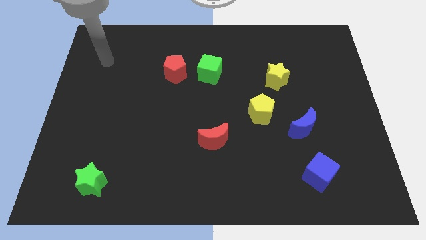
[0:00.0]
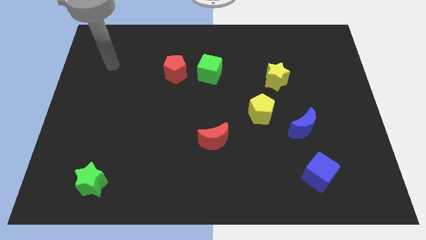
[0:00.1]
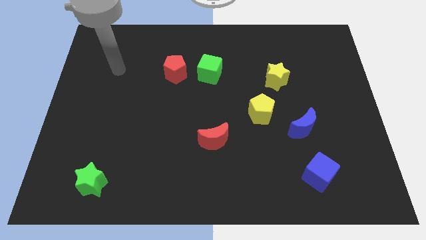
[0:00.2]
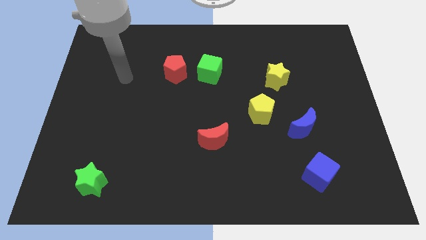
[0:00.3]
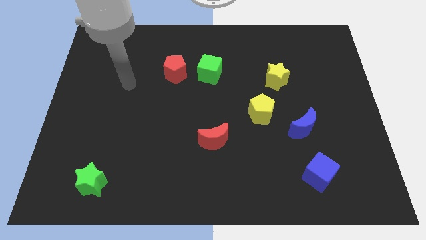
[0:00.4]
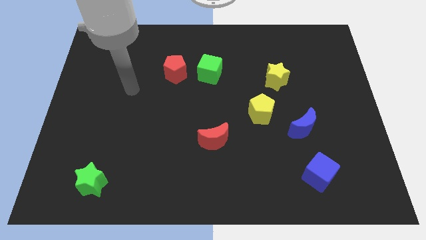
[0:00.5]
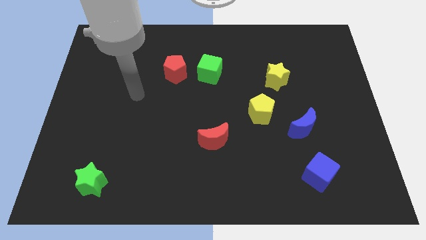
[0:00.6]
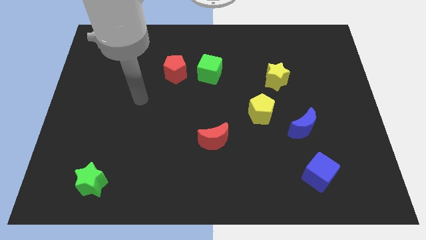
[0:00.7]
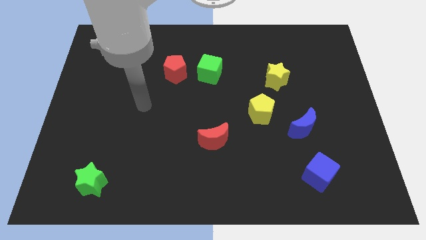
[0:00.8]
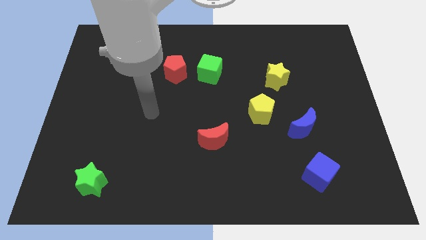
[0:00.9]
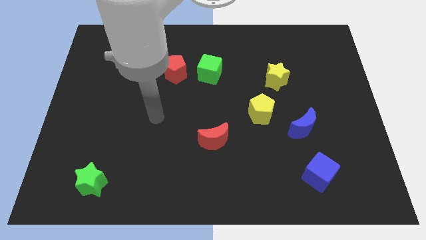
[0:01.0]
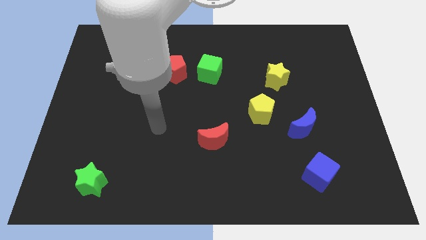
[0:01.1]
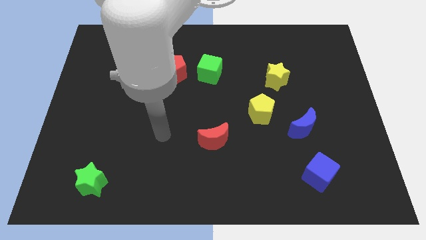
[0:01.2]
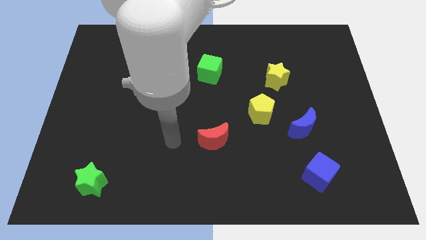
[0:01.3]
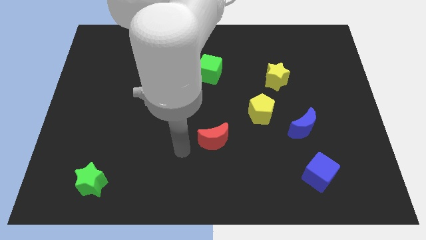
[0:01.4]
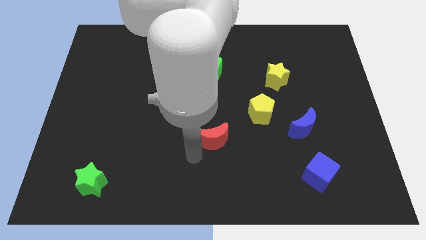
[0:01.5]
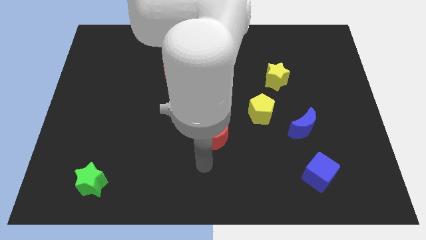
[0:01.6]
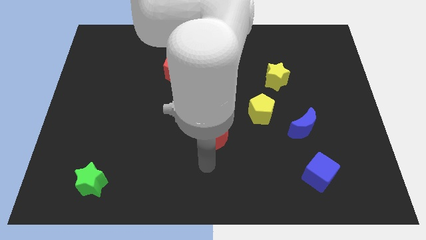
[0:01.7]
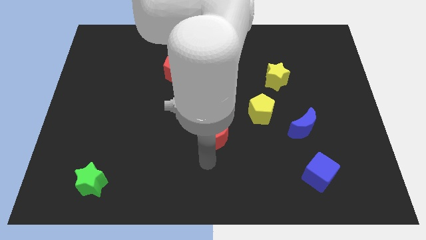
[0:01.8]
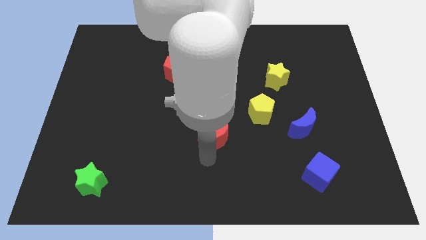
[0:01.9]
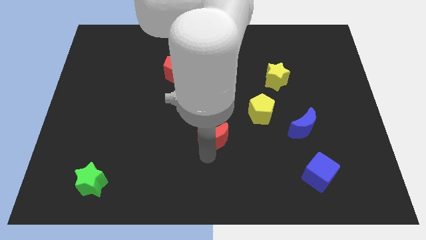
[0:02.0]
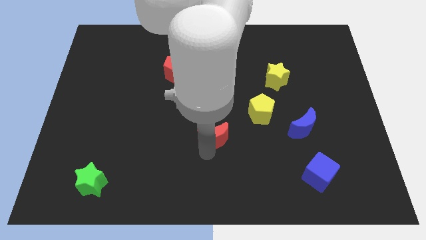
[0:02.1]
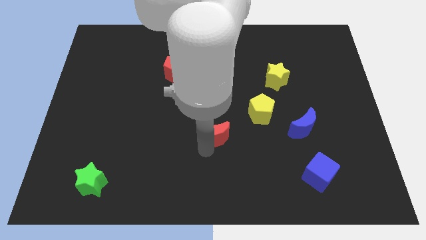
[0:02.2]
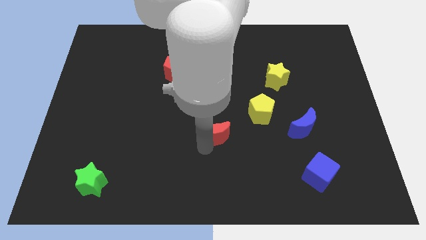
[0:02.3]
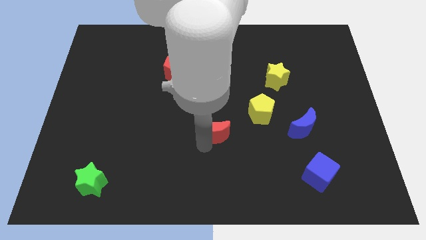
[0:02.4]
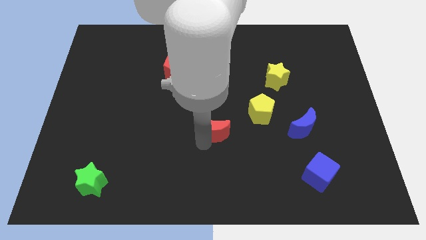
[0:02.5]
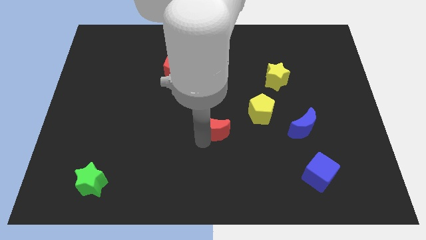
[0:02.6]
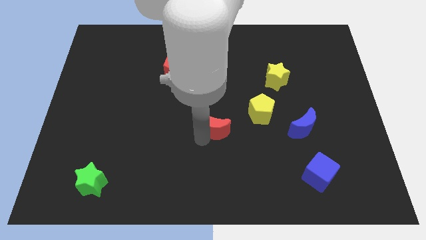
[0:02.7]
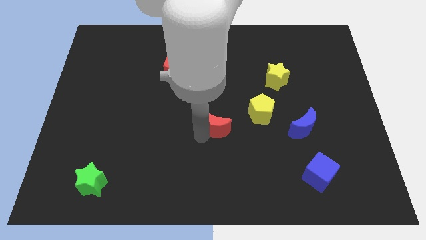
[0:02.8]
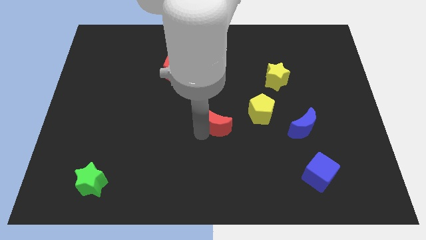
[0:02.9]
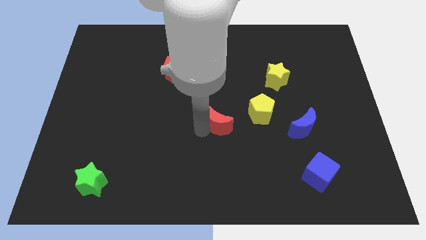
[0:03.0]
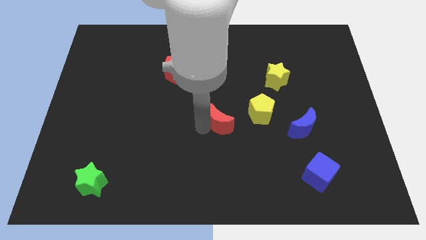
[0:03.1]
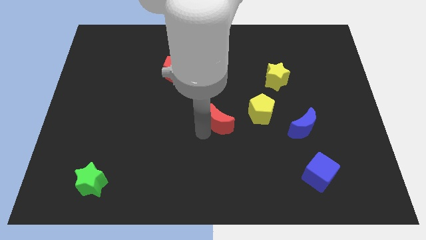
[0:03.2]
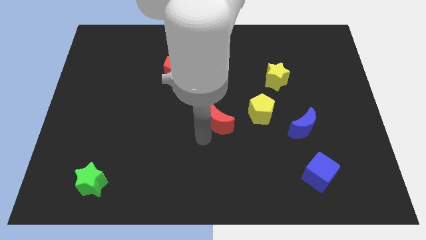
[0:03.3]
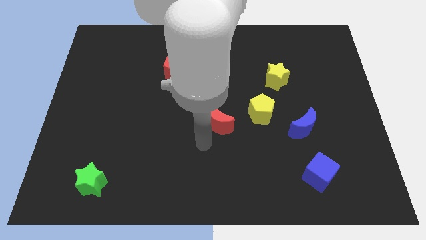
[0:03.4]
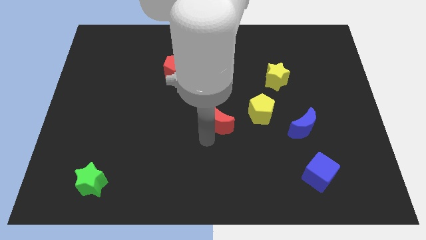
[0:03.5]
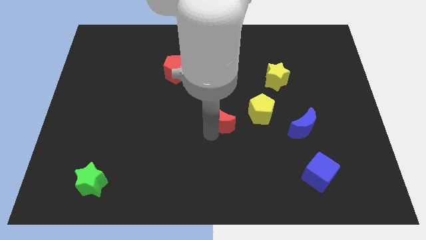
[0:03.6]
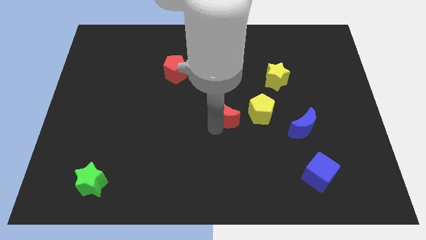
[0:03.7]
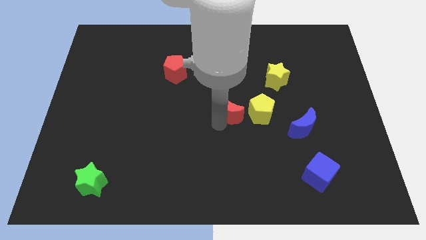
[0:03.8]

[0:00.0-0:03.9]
slide the red moon a bit upwards and to the right diagonally

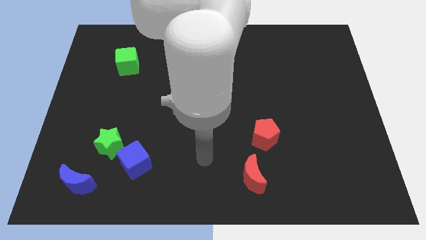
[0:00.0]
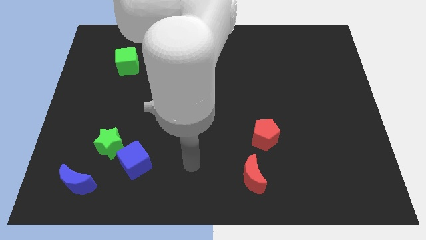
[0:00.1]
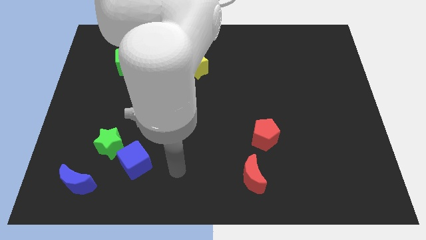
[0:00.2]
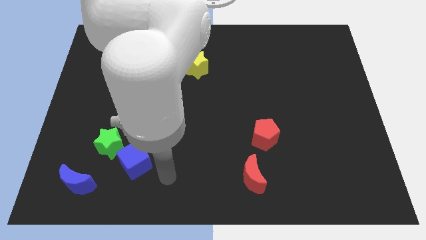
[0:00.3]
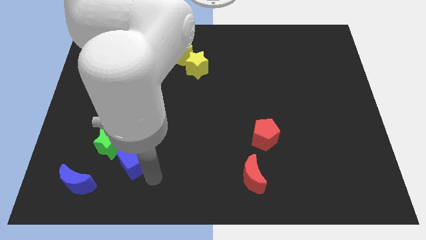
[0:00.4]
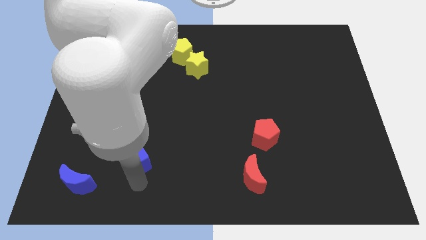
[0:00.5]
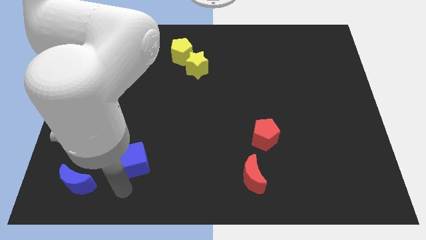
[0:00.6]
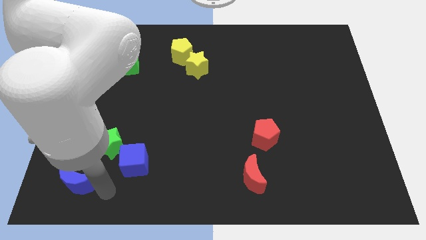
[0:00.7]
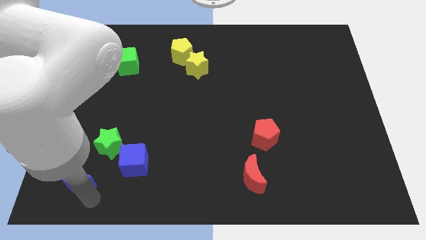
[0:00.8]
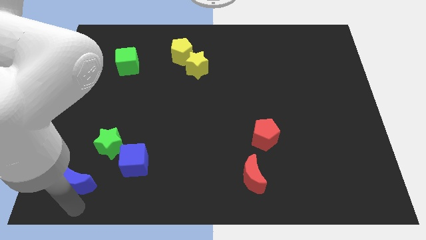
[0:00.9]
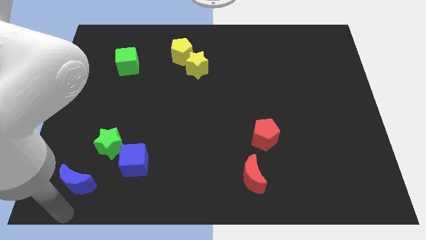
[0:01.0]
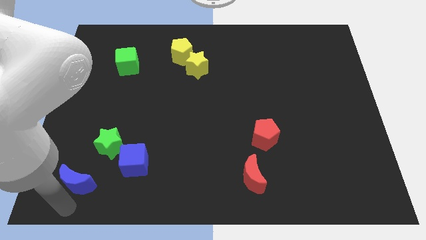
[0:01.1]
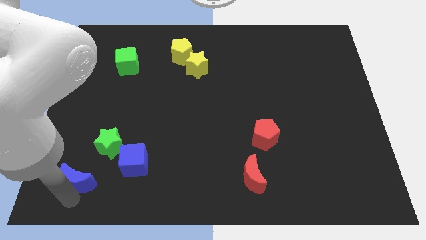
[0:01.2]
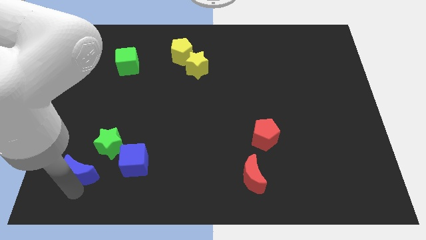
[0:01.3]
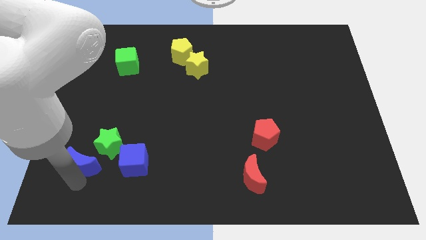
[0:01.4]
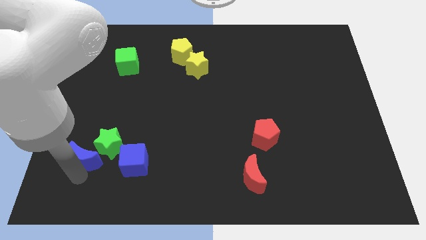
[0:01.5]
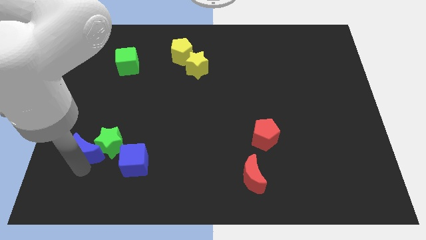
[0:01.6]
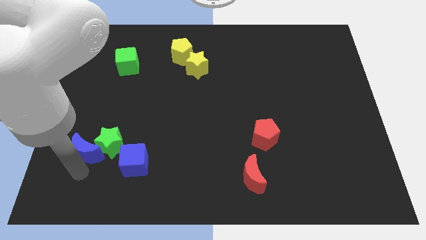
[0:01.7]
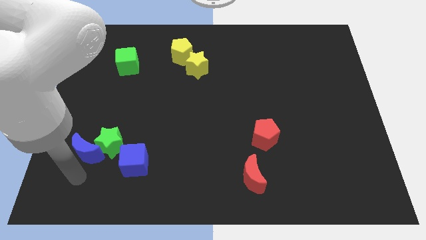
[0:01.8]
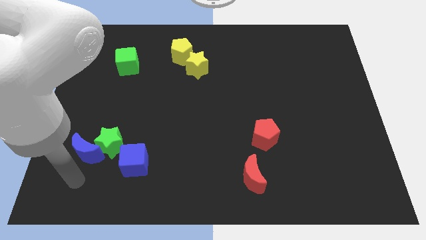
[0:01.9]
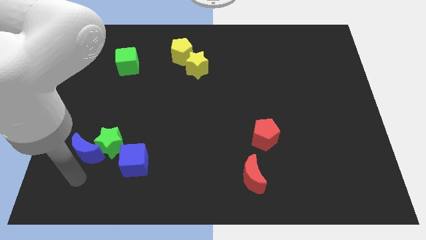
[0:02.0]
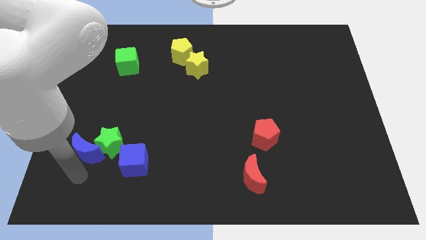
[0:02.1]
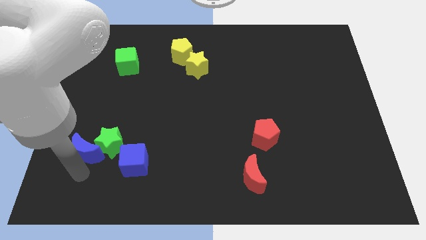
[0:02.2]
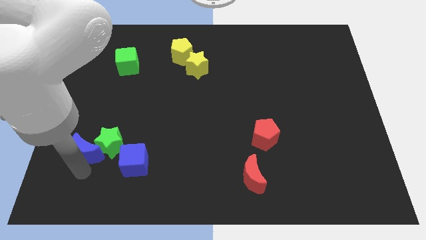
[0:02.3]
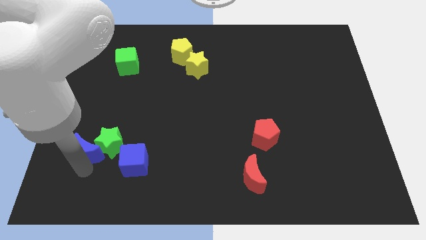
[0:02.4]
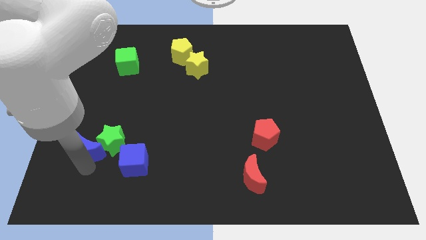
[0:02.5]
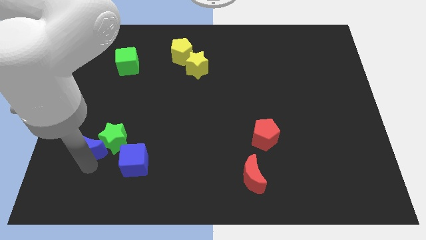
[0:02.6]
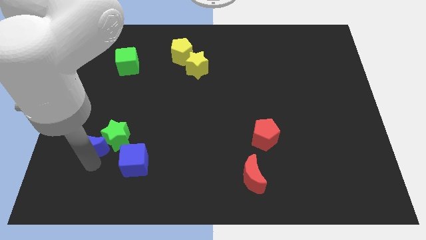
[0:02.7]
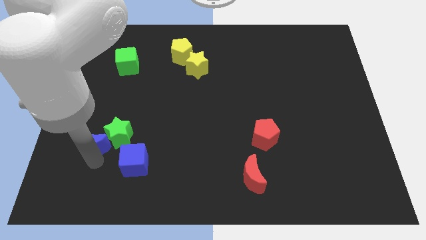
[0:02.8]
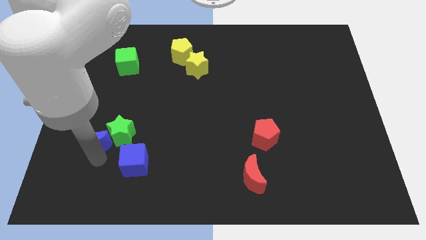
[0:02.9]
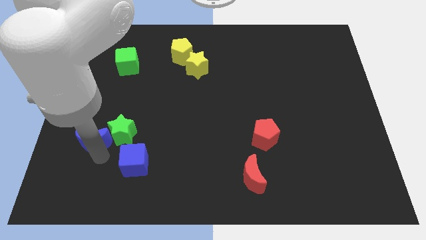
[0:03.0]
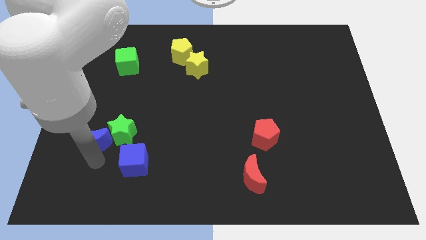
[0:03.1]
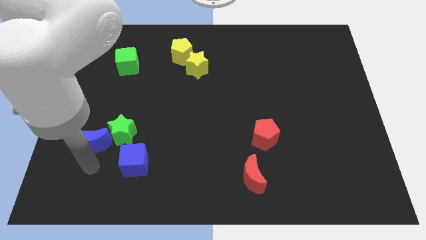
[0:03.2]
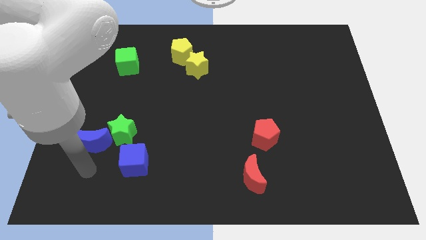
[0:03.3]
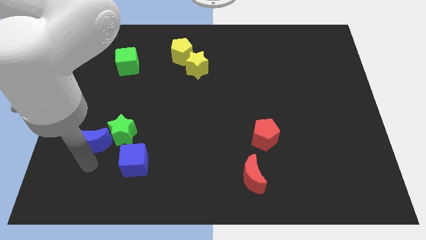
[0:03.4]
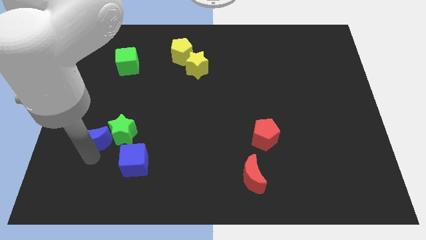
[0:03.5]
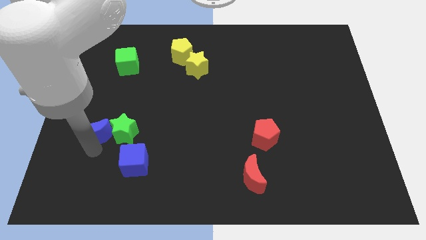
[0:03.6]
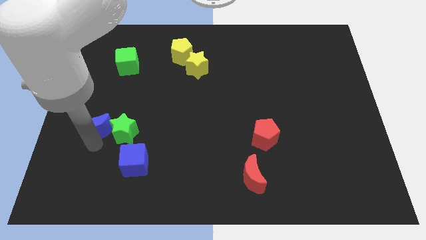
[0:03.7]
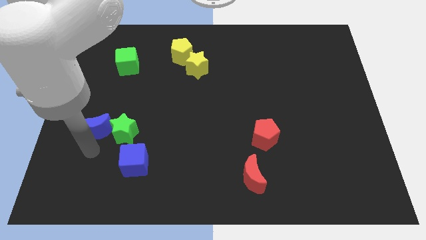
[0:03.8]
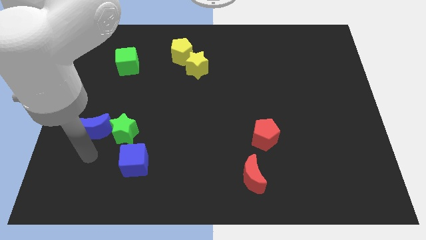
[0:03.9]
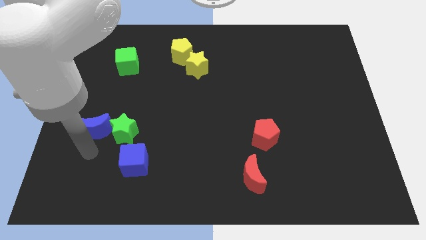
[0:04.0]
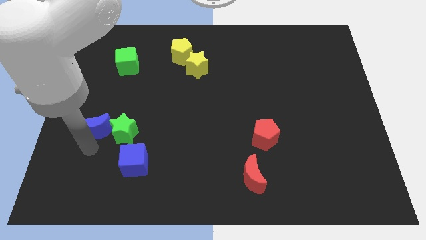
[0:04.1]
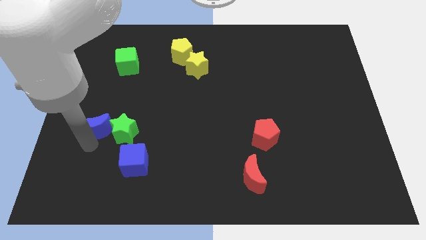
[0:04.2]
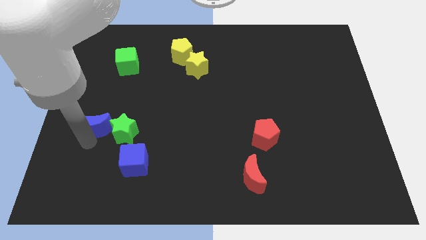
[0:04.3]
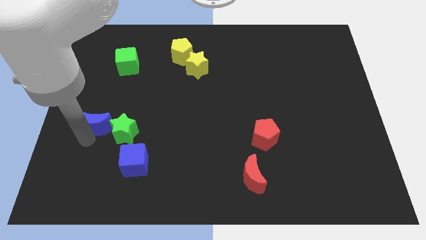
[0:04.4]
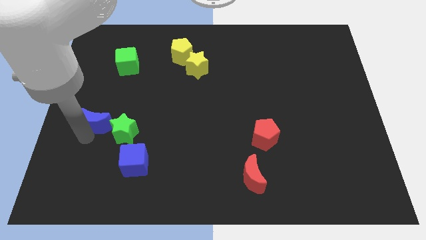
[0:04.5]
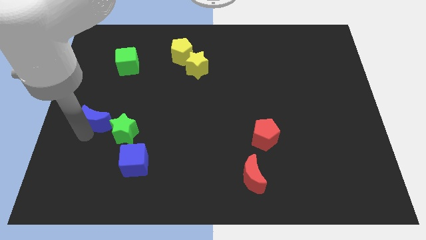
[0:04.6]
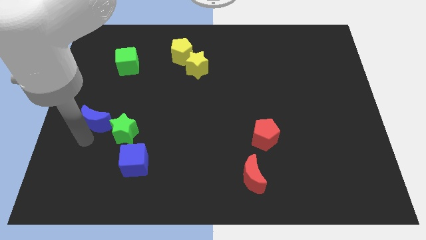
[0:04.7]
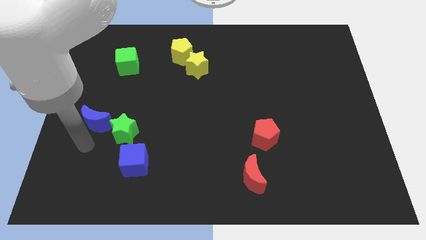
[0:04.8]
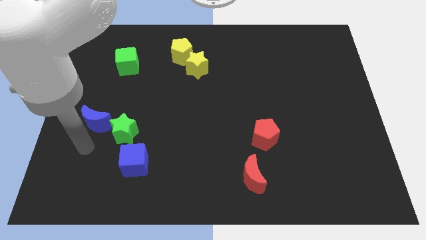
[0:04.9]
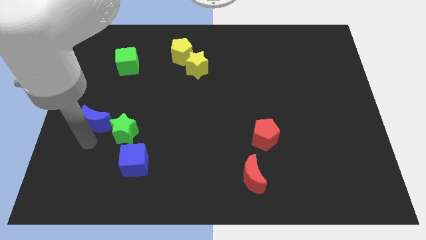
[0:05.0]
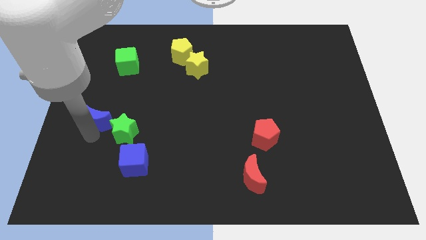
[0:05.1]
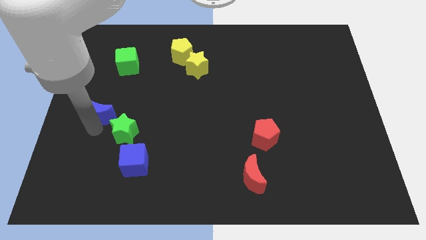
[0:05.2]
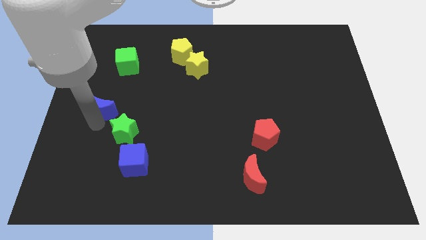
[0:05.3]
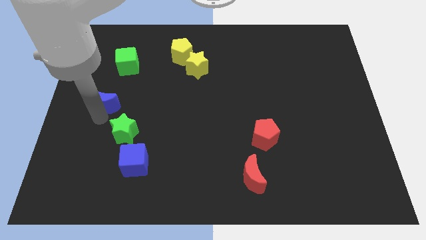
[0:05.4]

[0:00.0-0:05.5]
push the blue moon up
